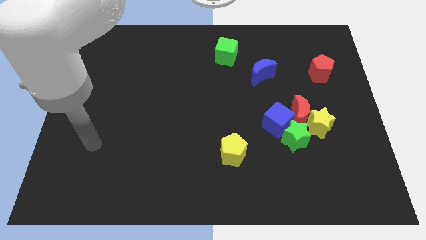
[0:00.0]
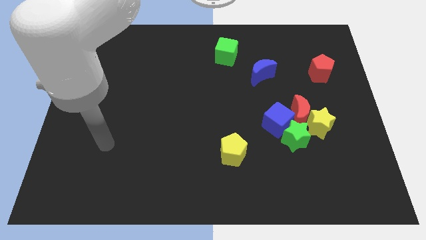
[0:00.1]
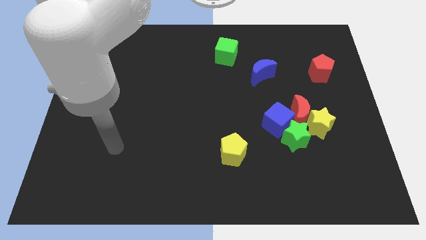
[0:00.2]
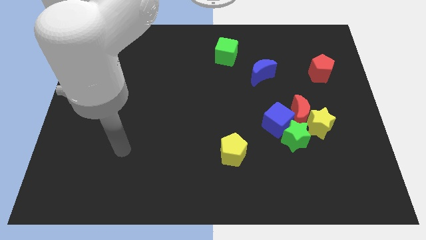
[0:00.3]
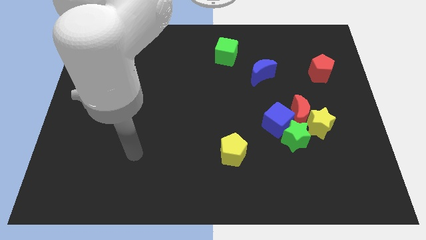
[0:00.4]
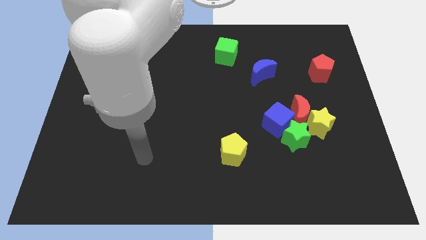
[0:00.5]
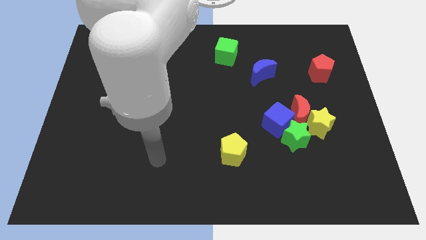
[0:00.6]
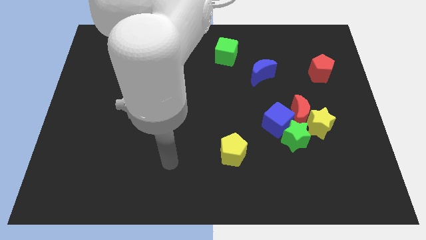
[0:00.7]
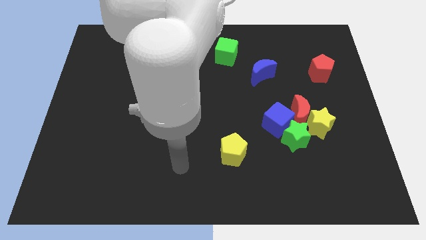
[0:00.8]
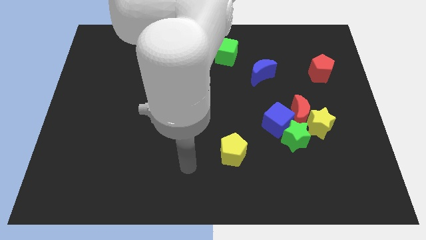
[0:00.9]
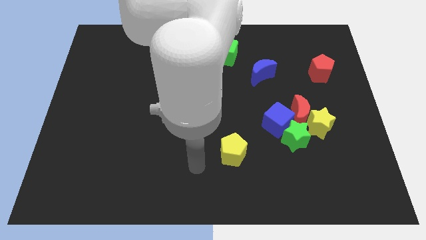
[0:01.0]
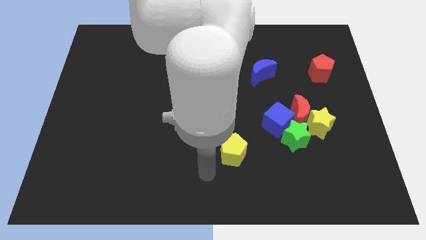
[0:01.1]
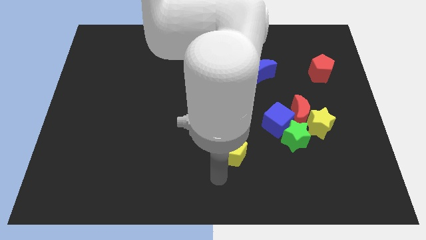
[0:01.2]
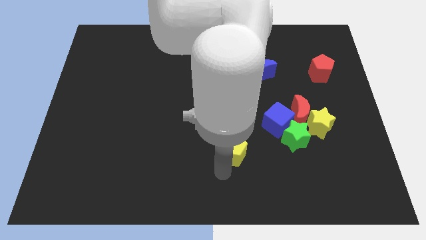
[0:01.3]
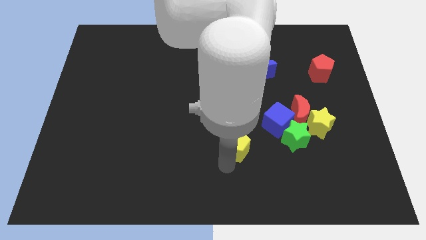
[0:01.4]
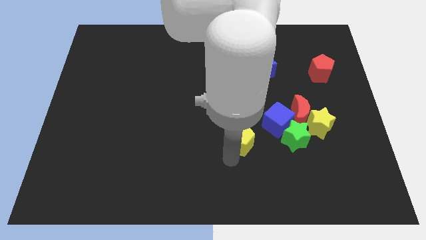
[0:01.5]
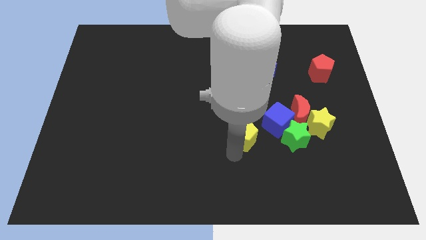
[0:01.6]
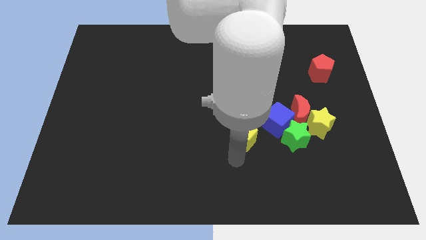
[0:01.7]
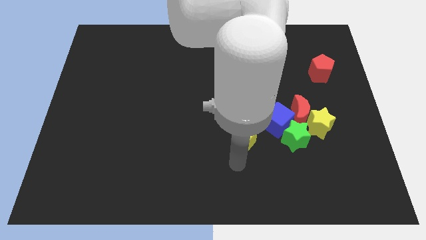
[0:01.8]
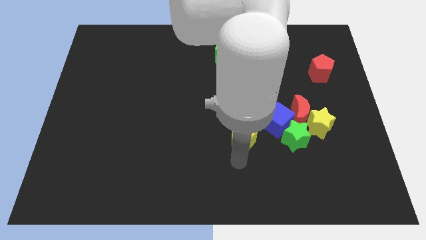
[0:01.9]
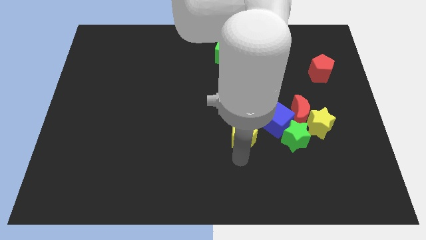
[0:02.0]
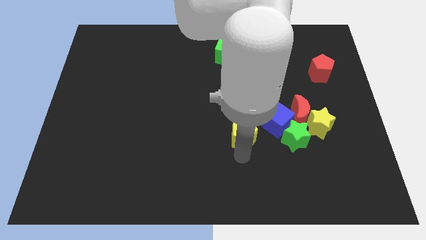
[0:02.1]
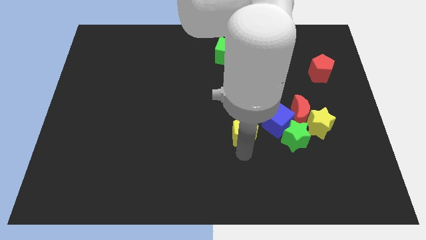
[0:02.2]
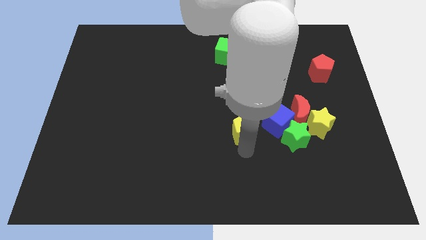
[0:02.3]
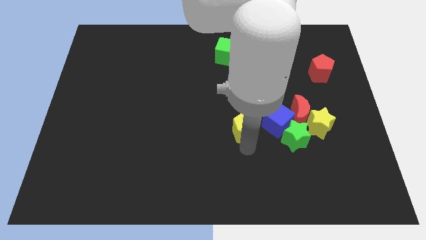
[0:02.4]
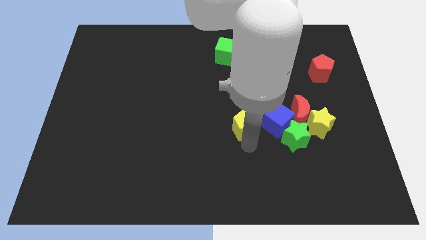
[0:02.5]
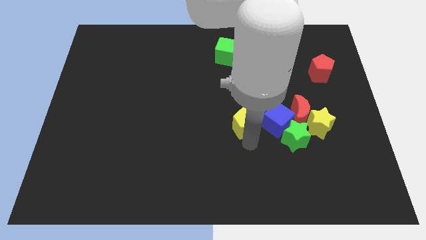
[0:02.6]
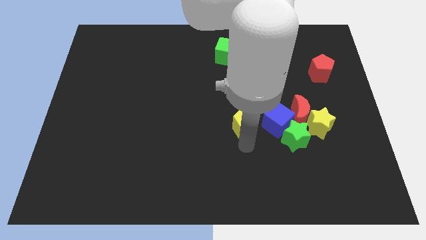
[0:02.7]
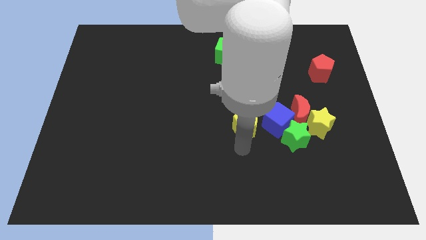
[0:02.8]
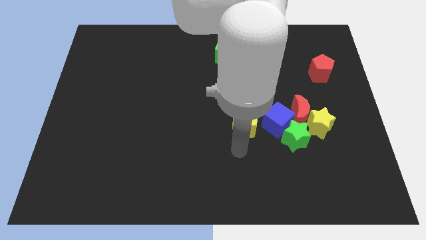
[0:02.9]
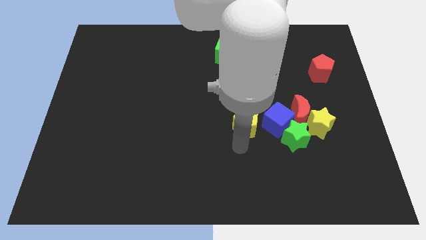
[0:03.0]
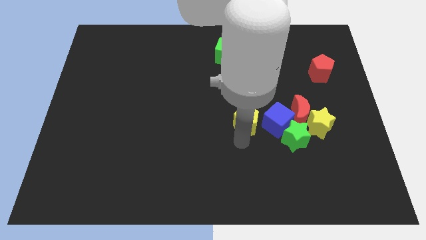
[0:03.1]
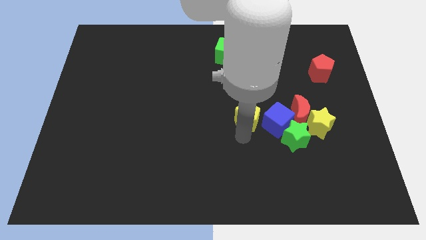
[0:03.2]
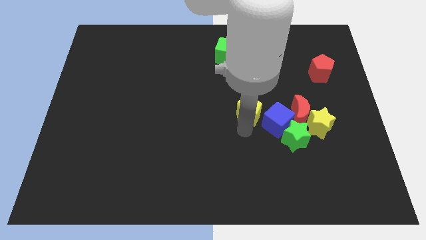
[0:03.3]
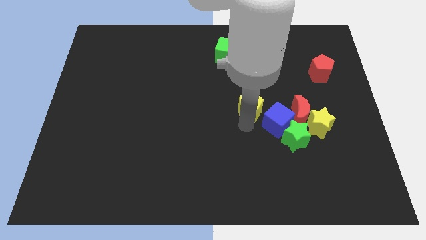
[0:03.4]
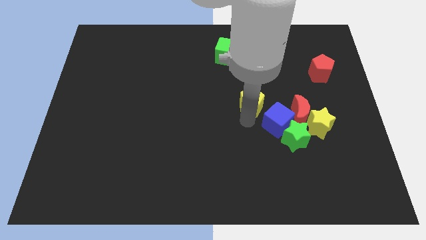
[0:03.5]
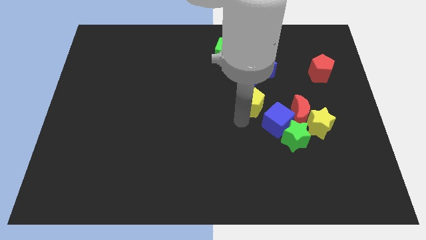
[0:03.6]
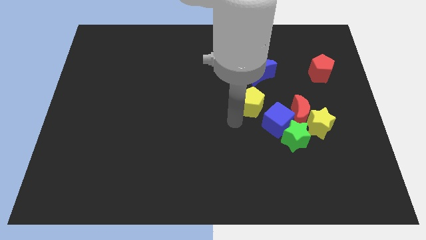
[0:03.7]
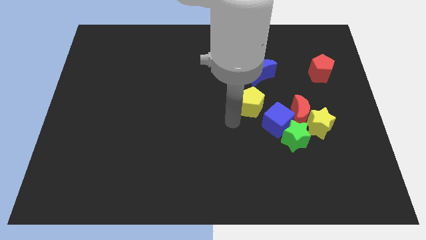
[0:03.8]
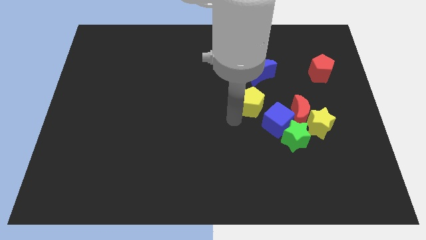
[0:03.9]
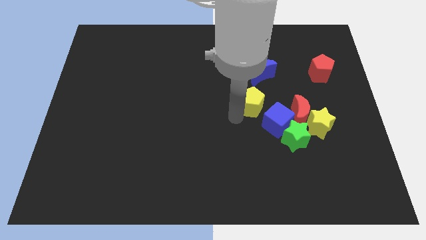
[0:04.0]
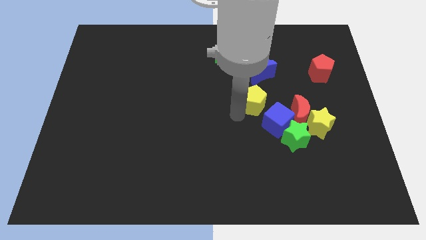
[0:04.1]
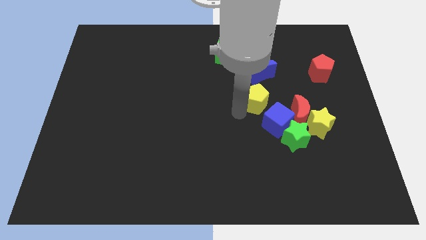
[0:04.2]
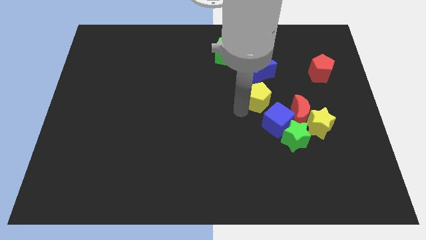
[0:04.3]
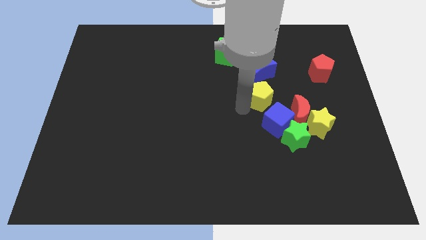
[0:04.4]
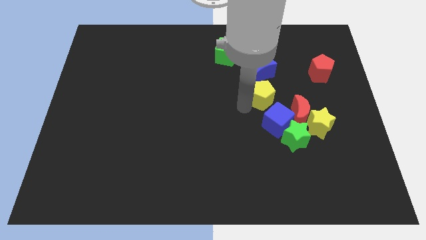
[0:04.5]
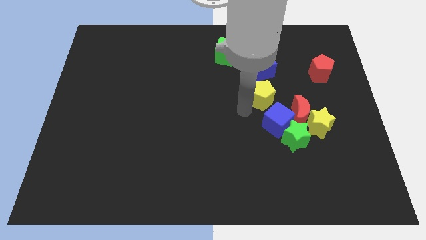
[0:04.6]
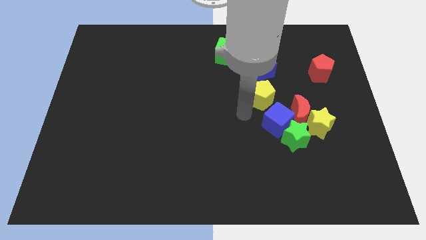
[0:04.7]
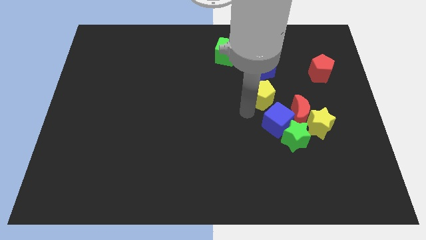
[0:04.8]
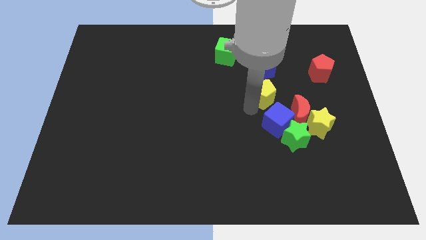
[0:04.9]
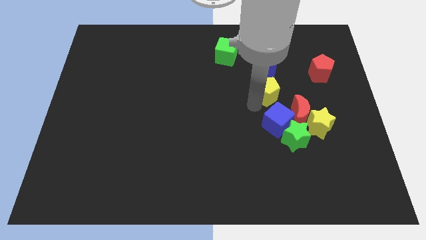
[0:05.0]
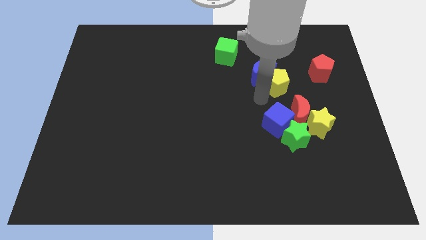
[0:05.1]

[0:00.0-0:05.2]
slide the yellow pentagon just right of the blue moon

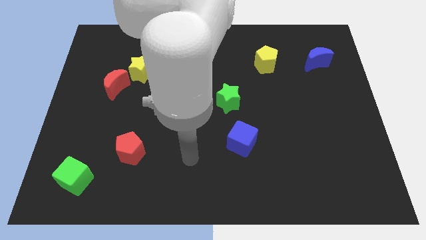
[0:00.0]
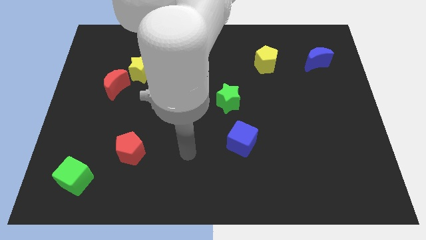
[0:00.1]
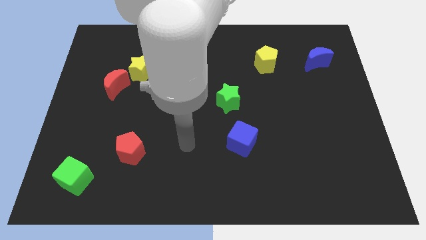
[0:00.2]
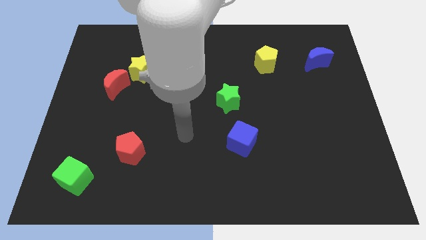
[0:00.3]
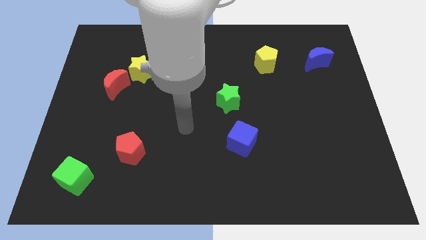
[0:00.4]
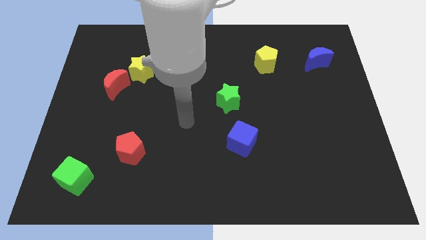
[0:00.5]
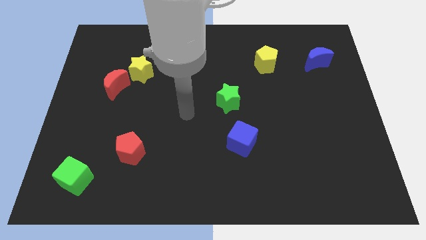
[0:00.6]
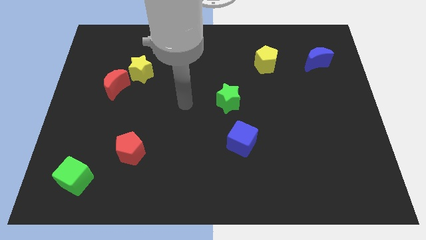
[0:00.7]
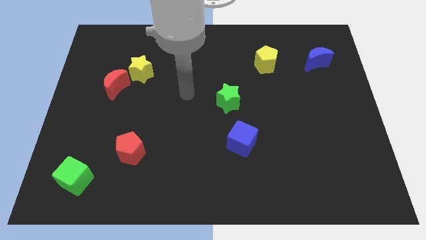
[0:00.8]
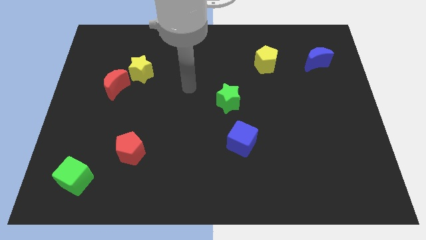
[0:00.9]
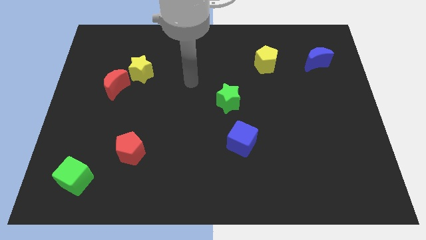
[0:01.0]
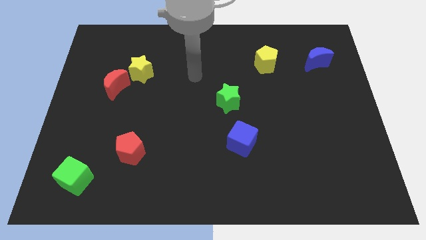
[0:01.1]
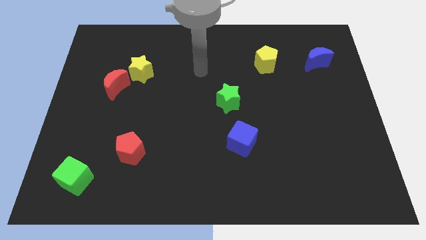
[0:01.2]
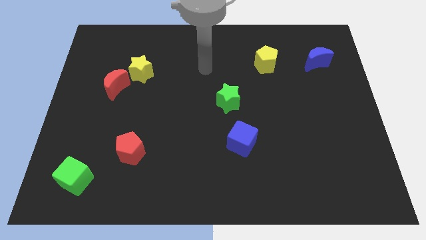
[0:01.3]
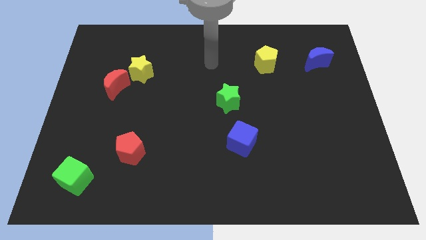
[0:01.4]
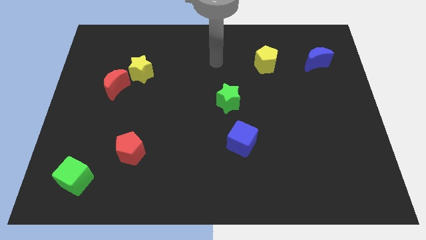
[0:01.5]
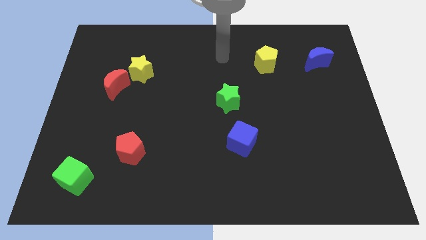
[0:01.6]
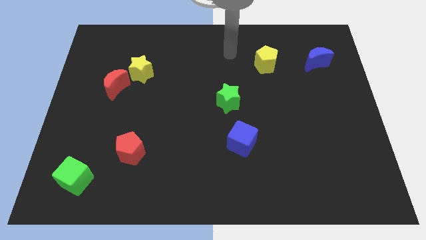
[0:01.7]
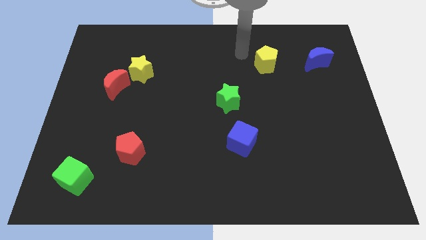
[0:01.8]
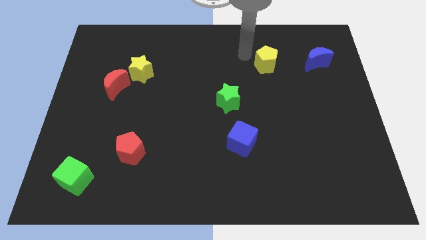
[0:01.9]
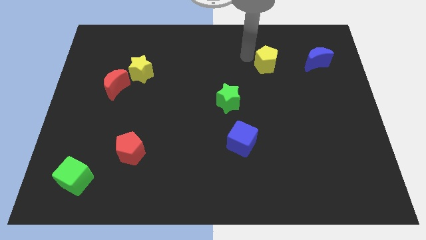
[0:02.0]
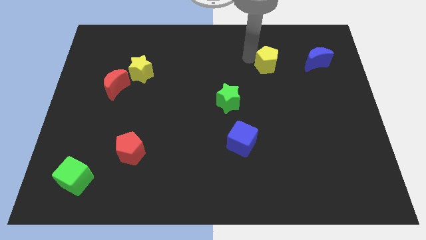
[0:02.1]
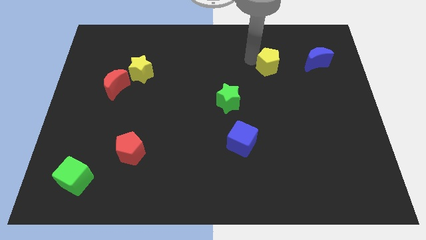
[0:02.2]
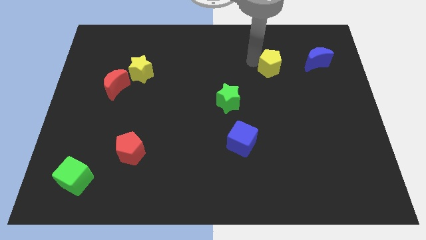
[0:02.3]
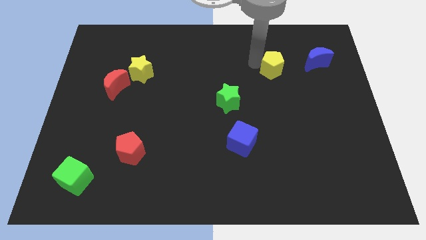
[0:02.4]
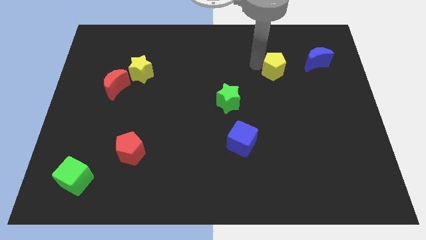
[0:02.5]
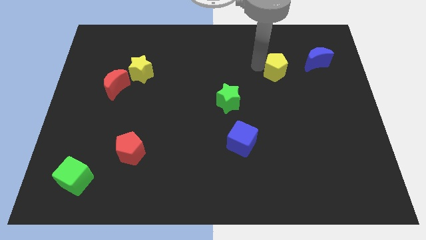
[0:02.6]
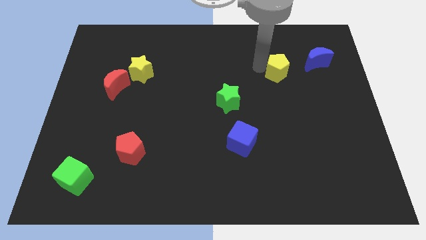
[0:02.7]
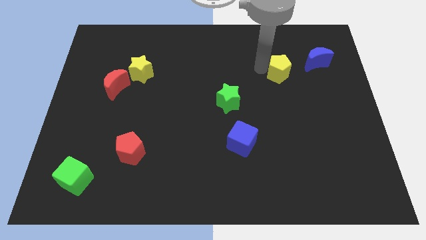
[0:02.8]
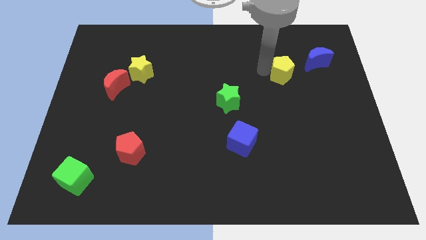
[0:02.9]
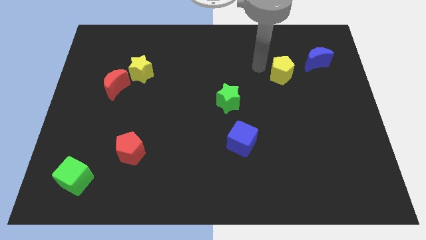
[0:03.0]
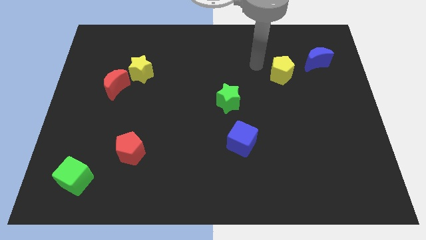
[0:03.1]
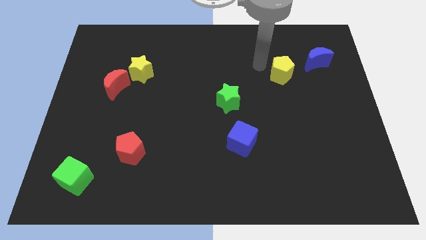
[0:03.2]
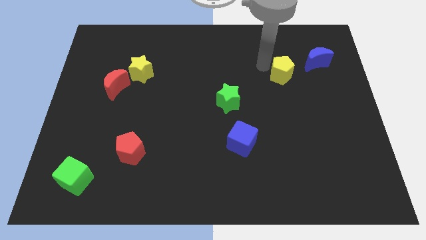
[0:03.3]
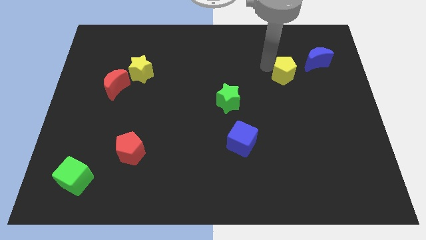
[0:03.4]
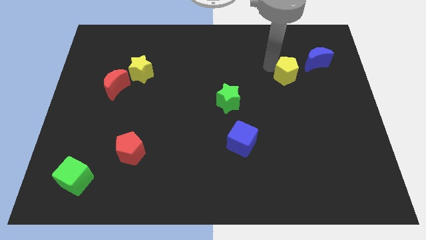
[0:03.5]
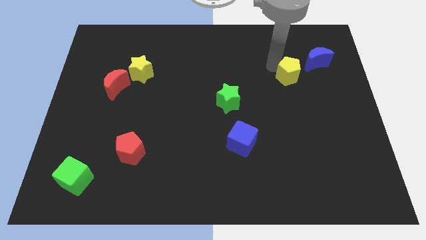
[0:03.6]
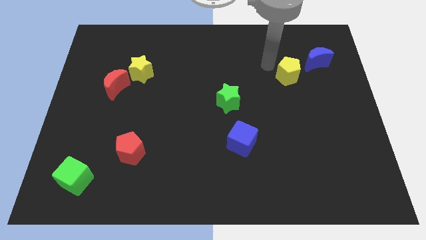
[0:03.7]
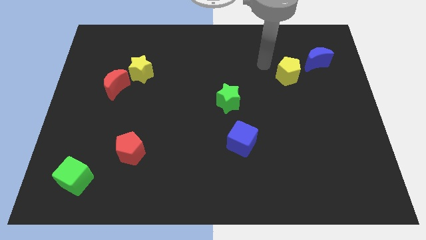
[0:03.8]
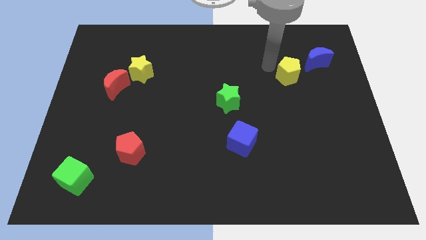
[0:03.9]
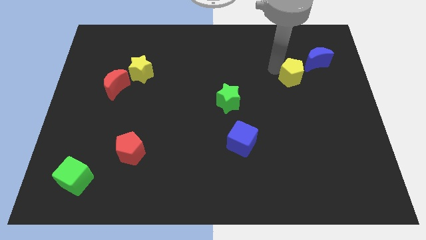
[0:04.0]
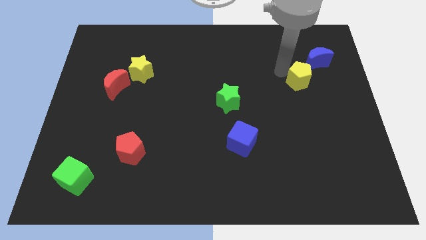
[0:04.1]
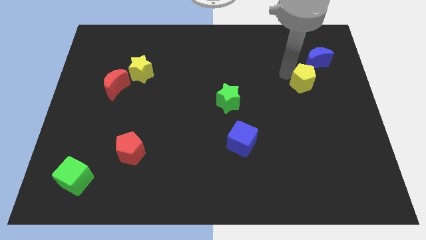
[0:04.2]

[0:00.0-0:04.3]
put the yellow pentagon to the bottom side of the blue moon
